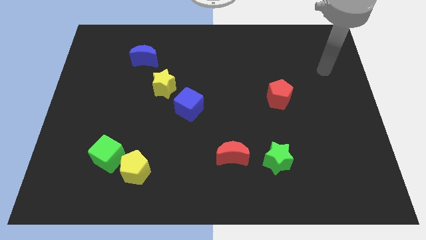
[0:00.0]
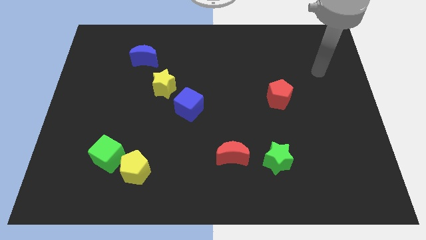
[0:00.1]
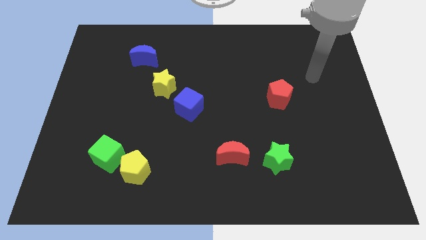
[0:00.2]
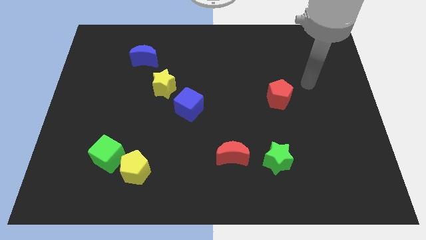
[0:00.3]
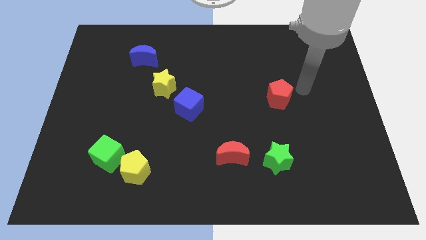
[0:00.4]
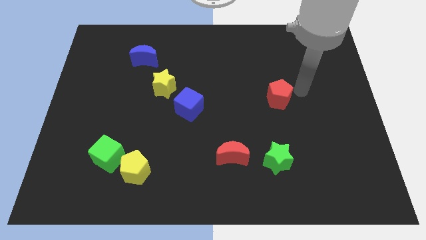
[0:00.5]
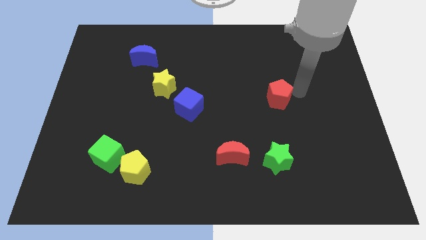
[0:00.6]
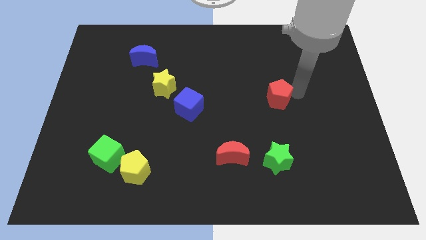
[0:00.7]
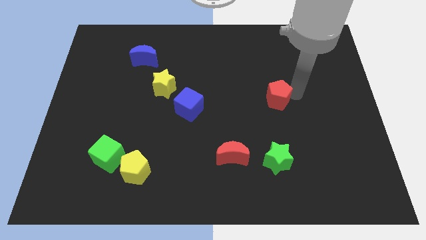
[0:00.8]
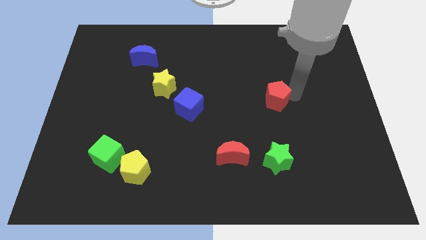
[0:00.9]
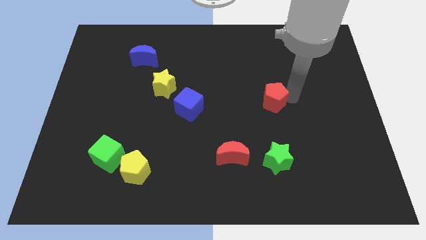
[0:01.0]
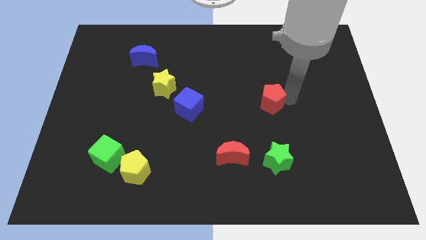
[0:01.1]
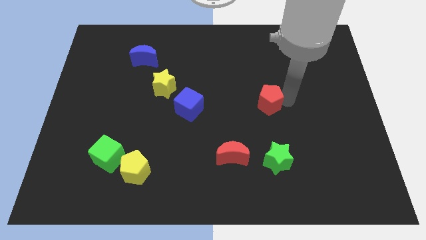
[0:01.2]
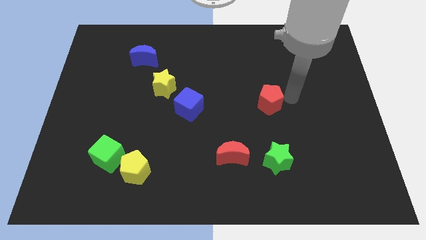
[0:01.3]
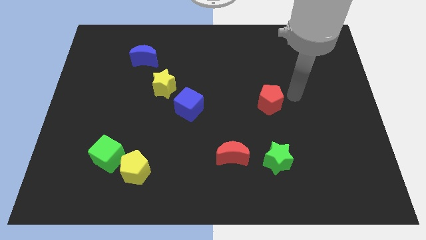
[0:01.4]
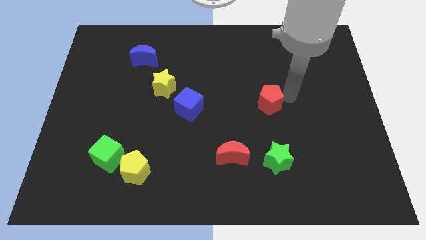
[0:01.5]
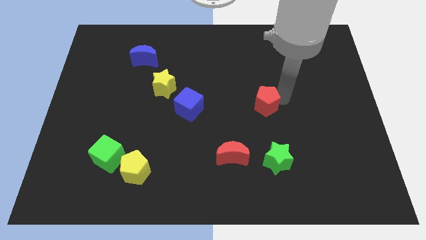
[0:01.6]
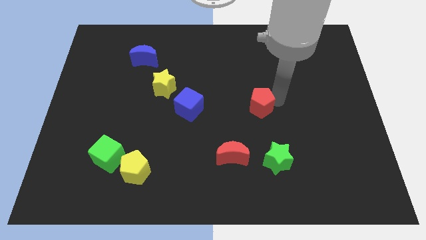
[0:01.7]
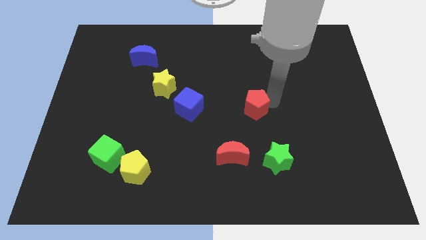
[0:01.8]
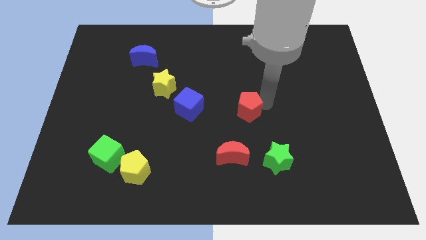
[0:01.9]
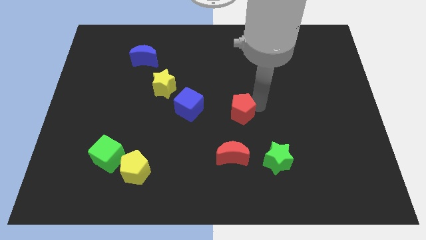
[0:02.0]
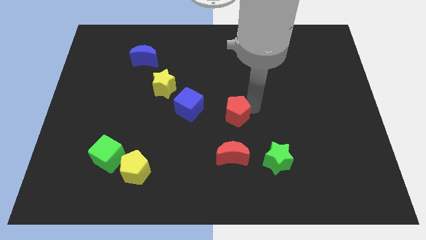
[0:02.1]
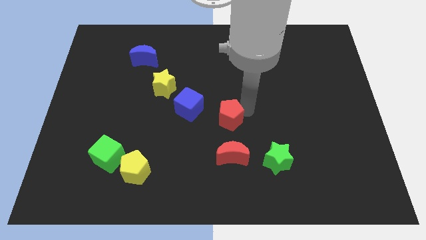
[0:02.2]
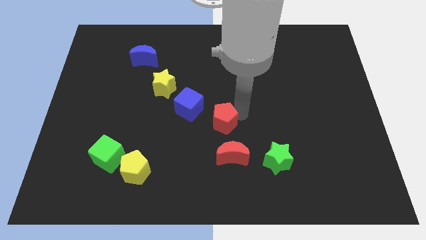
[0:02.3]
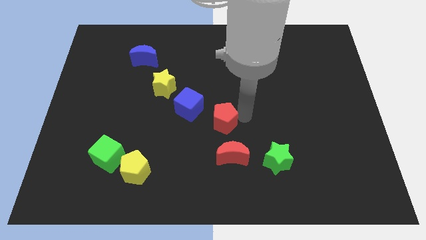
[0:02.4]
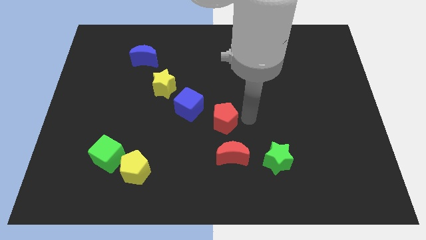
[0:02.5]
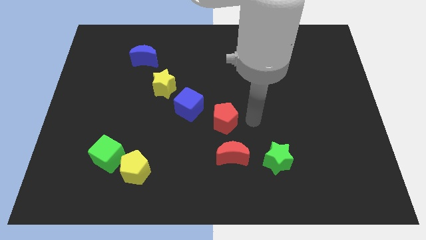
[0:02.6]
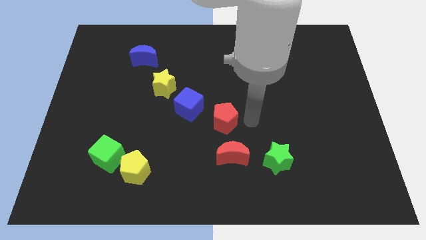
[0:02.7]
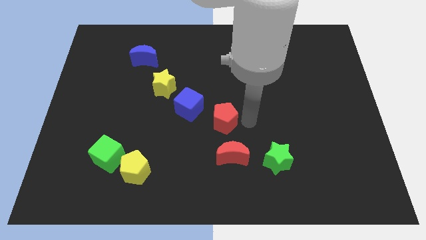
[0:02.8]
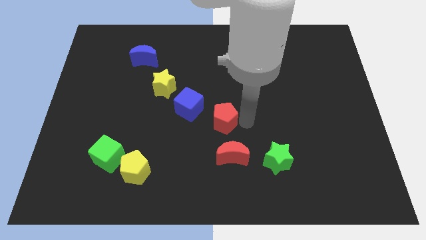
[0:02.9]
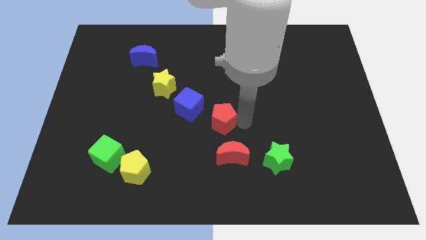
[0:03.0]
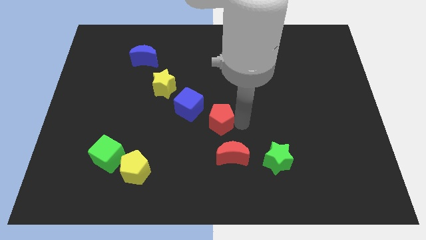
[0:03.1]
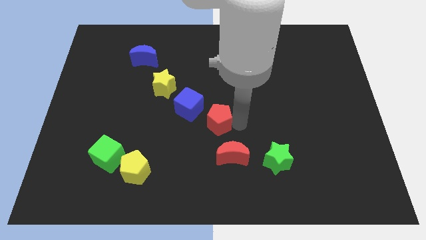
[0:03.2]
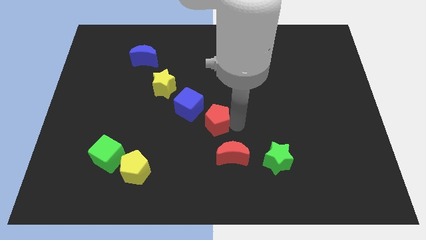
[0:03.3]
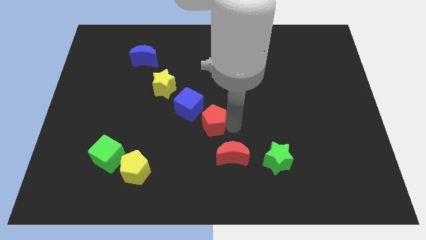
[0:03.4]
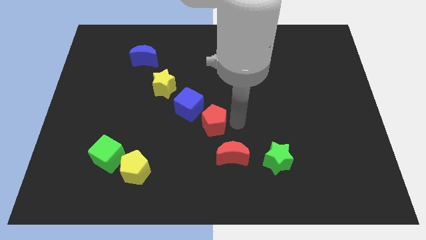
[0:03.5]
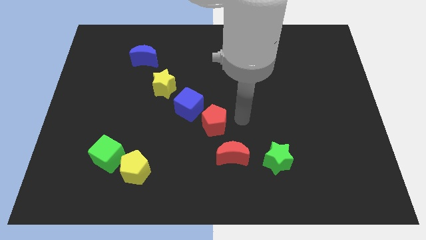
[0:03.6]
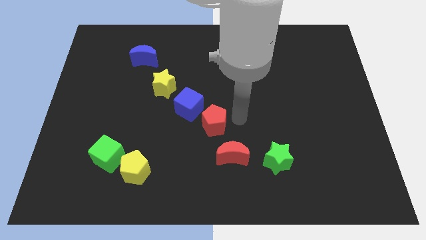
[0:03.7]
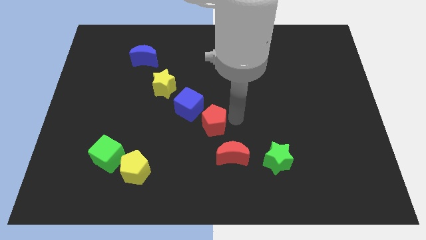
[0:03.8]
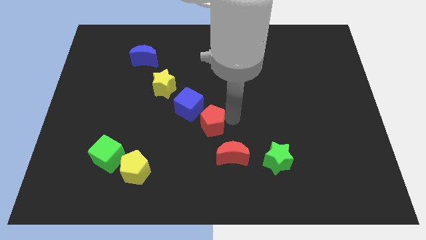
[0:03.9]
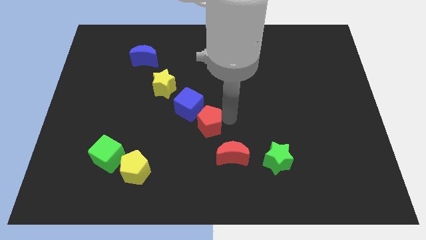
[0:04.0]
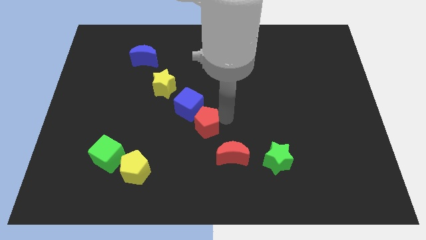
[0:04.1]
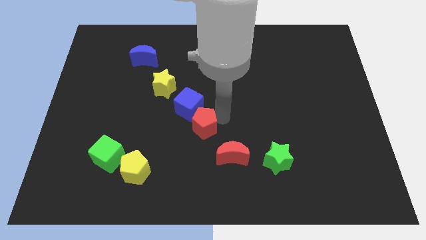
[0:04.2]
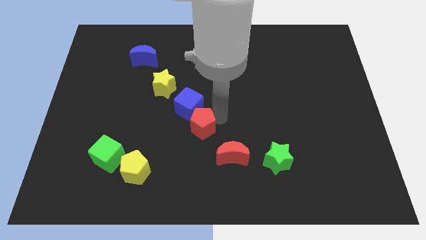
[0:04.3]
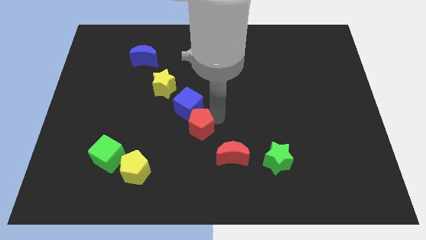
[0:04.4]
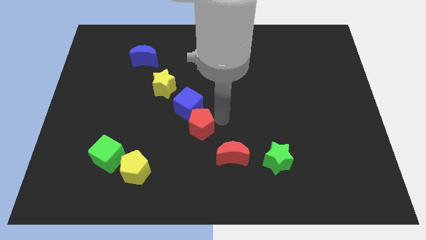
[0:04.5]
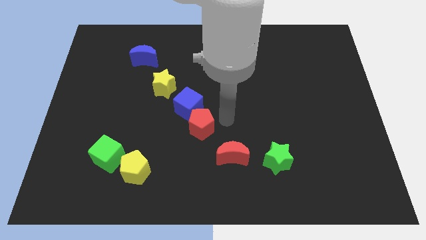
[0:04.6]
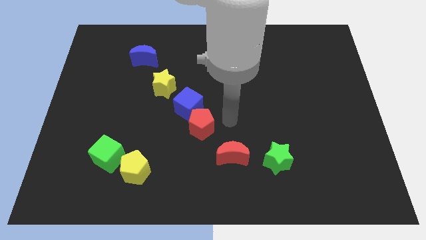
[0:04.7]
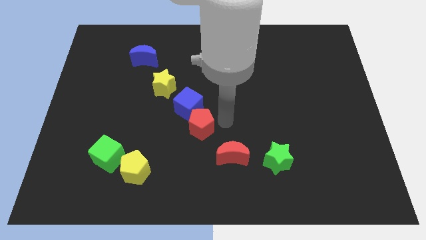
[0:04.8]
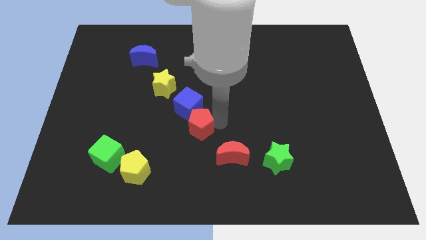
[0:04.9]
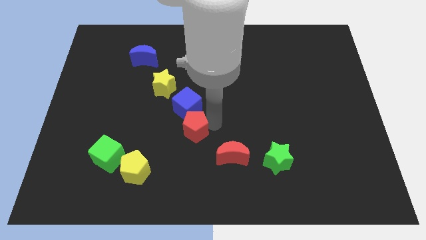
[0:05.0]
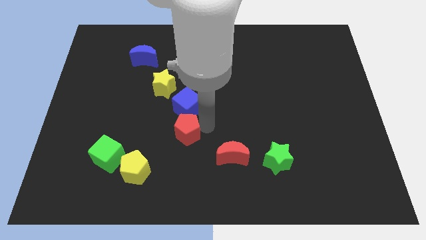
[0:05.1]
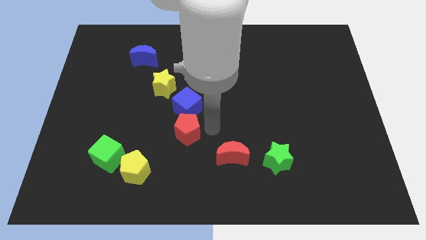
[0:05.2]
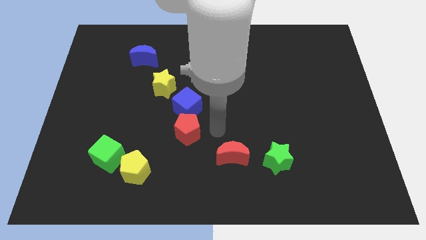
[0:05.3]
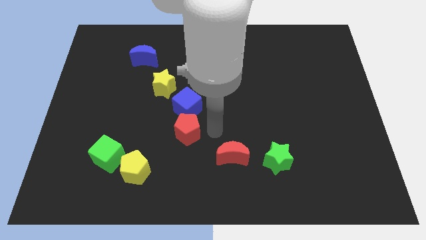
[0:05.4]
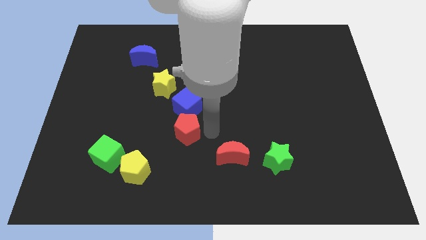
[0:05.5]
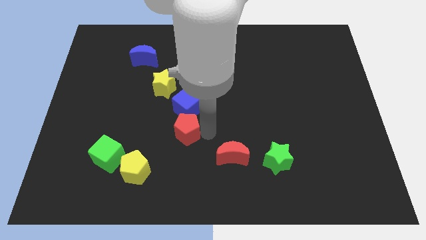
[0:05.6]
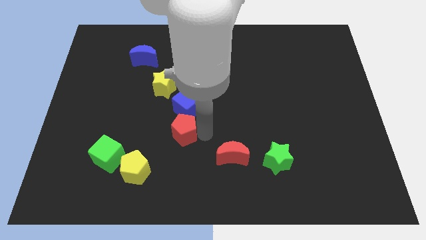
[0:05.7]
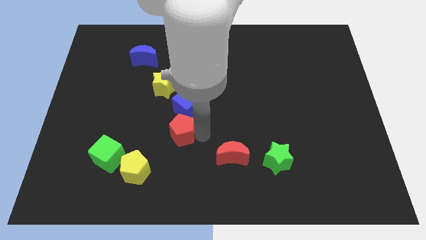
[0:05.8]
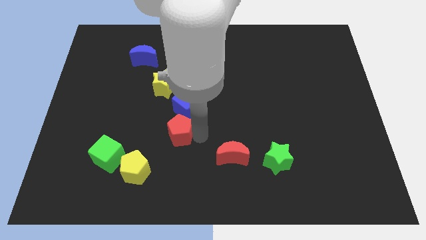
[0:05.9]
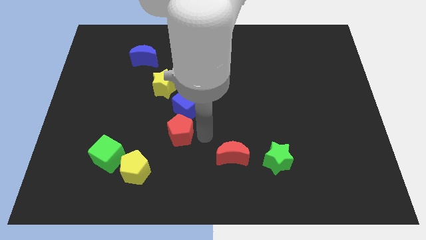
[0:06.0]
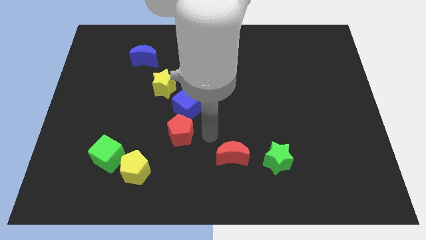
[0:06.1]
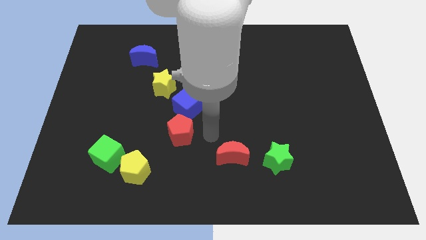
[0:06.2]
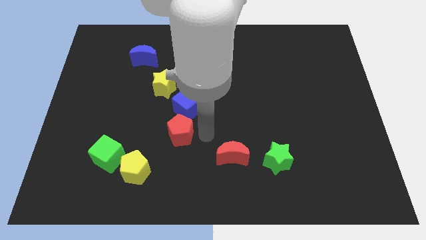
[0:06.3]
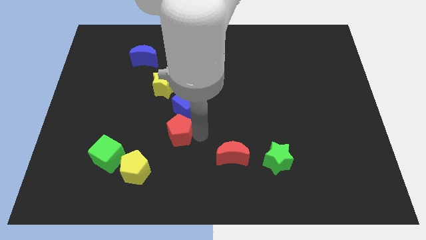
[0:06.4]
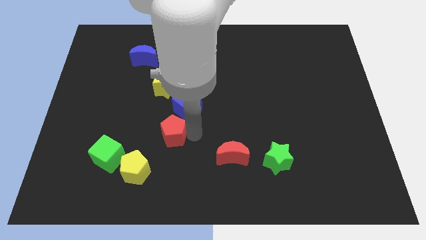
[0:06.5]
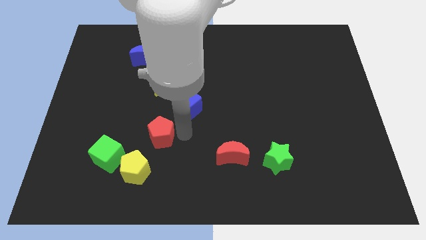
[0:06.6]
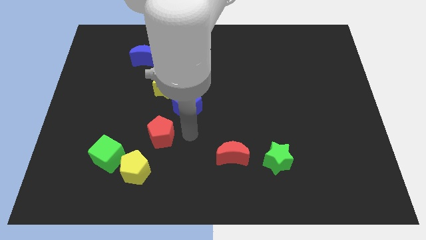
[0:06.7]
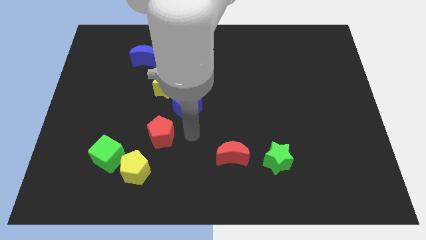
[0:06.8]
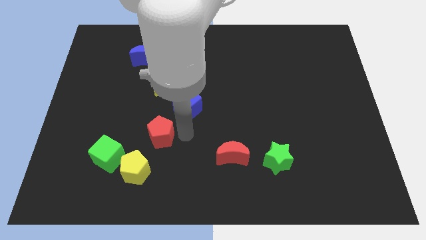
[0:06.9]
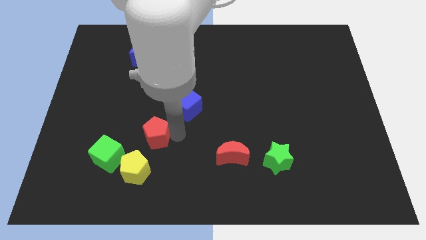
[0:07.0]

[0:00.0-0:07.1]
move the red pentagon diagonally up and to the right of the green cube

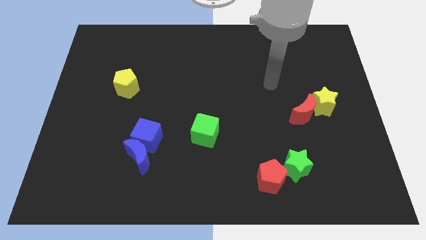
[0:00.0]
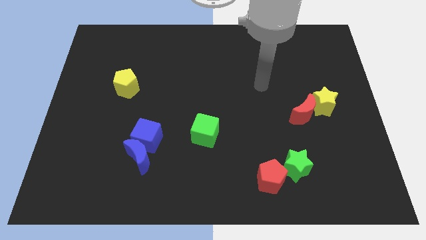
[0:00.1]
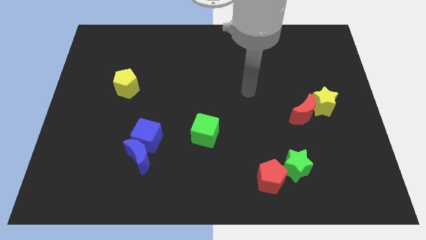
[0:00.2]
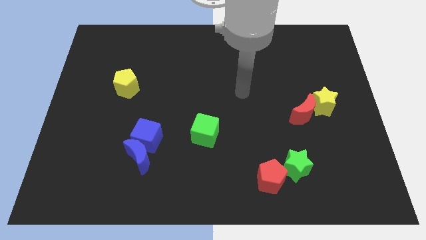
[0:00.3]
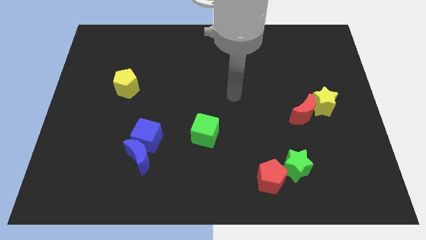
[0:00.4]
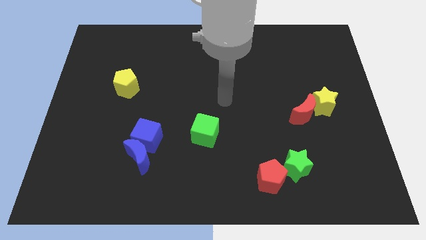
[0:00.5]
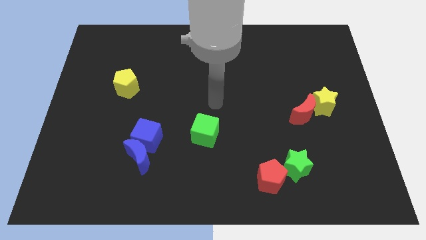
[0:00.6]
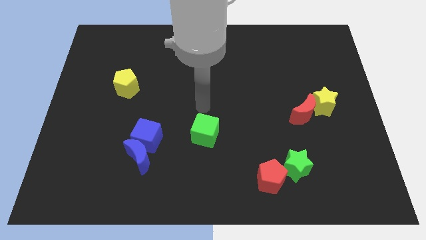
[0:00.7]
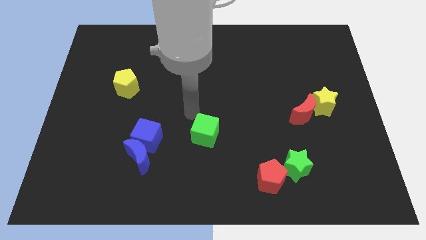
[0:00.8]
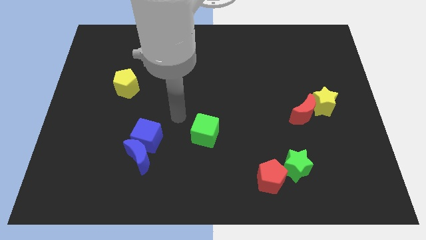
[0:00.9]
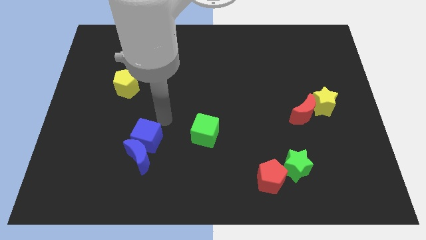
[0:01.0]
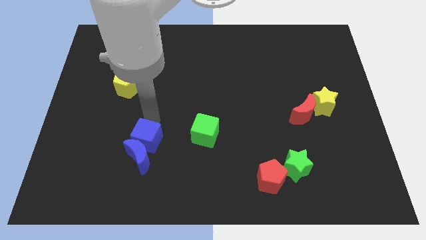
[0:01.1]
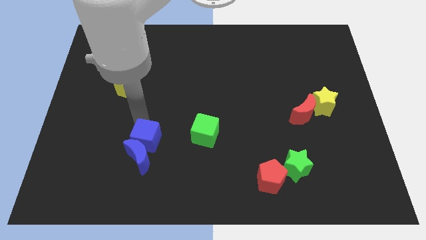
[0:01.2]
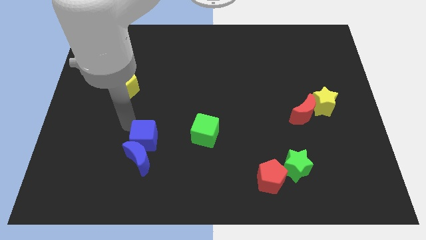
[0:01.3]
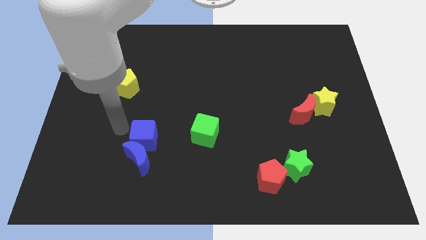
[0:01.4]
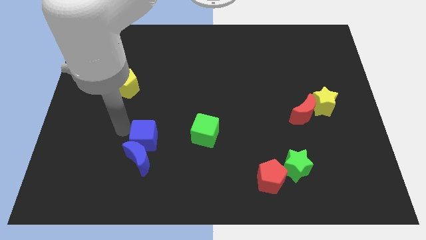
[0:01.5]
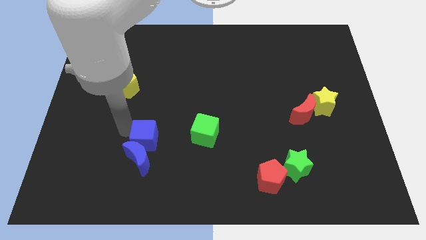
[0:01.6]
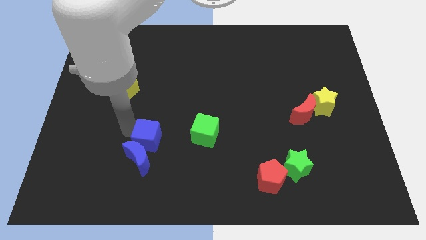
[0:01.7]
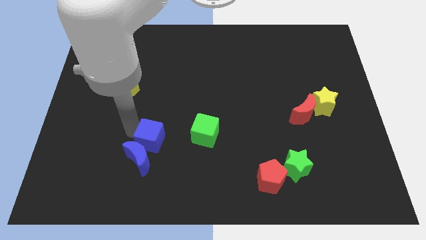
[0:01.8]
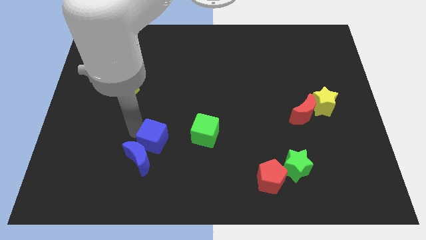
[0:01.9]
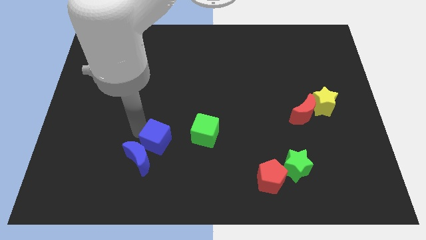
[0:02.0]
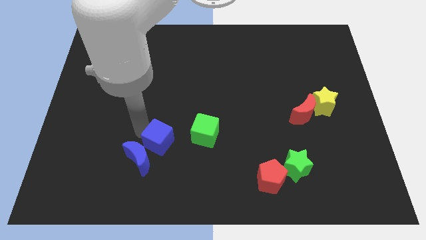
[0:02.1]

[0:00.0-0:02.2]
push the blue cube to the right side of the blue moon
